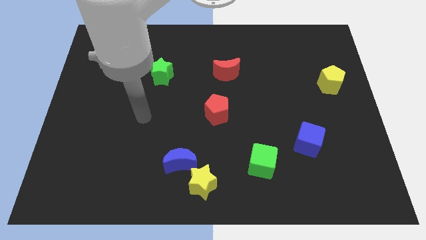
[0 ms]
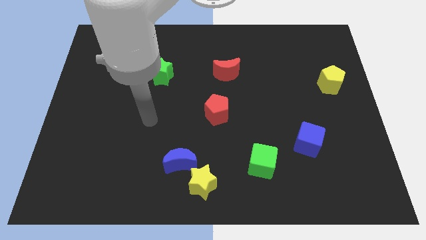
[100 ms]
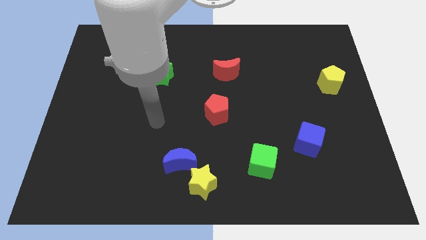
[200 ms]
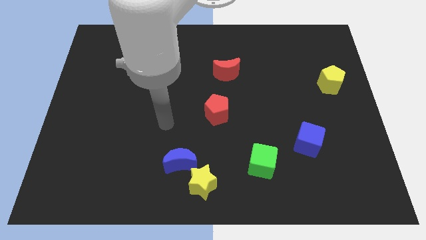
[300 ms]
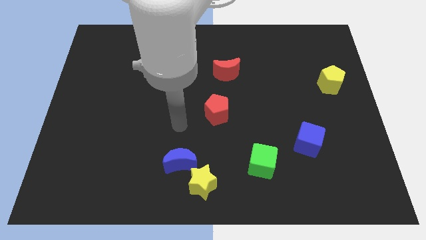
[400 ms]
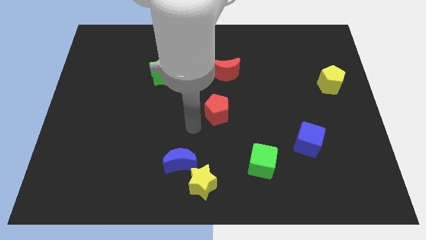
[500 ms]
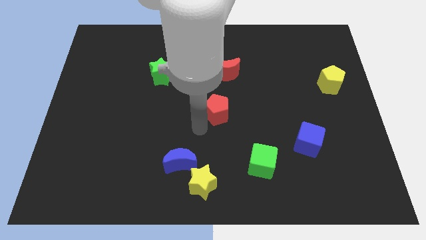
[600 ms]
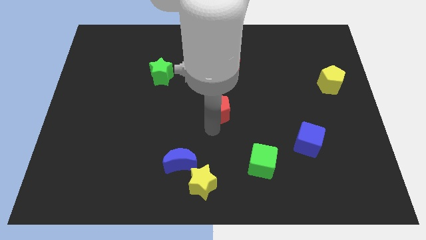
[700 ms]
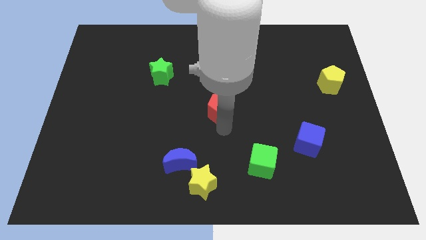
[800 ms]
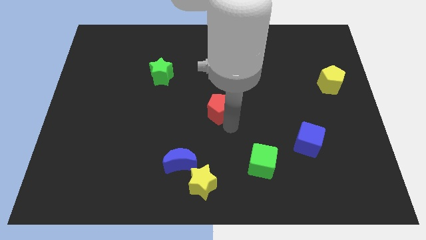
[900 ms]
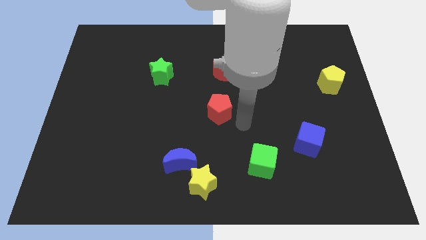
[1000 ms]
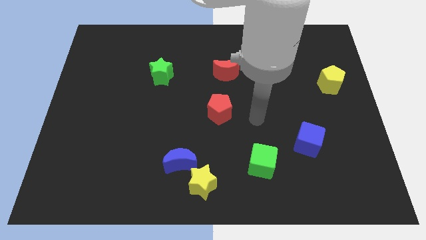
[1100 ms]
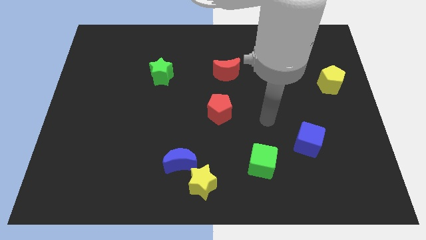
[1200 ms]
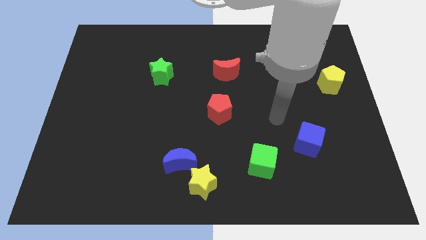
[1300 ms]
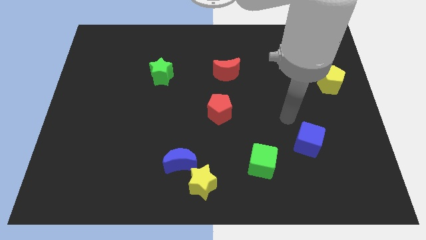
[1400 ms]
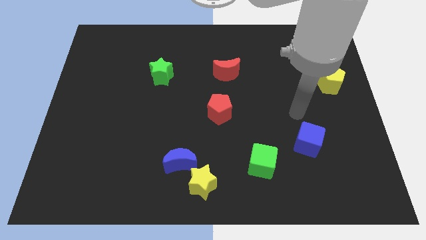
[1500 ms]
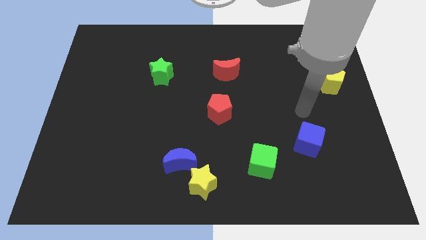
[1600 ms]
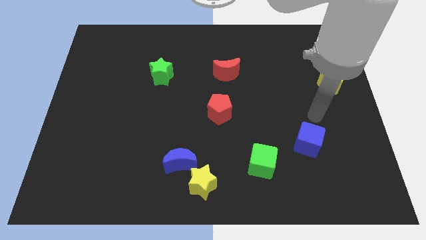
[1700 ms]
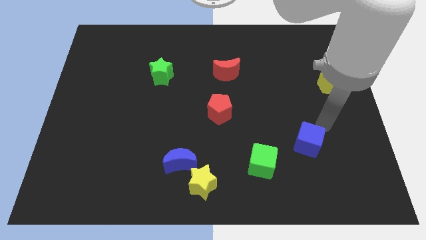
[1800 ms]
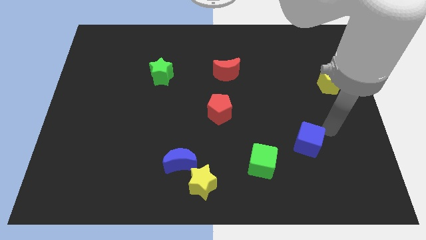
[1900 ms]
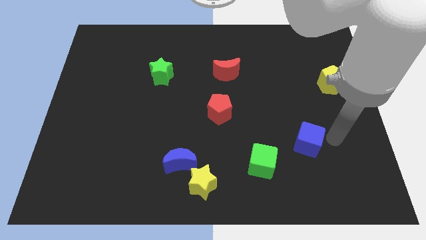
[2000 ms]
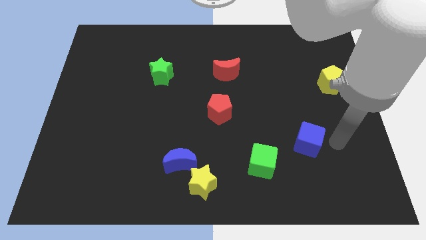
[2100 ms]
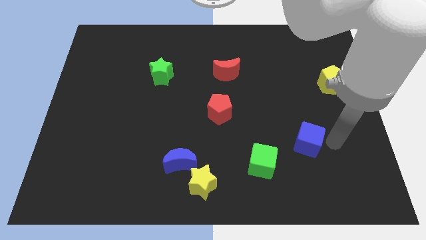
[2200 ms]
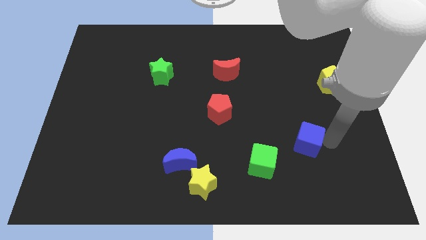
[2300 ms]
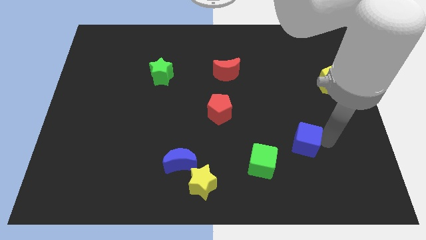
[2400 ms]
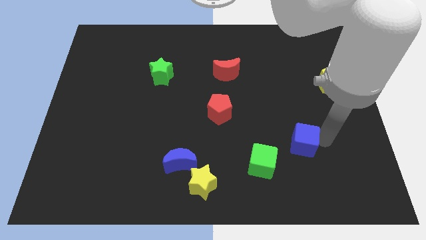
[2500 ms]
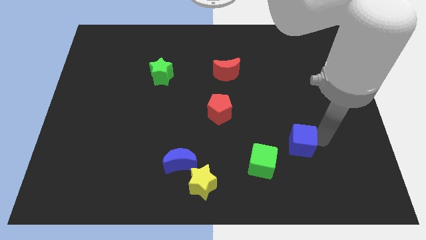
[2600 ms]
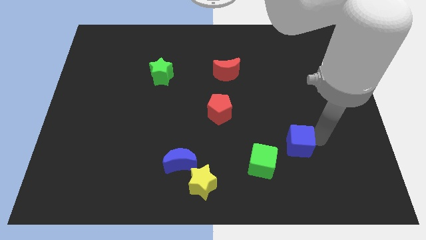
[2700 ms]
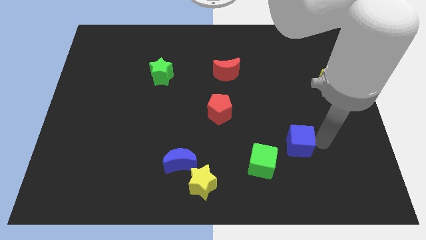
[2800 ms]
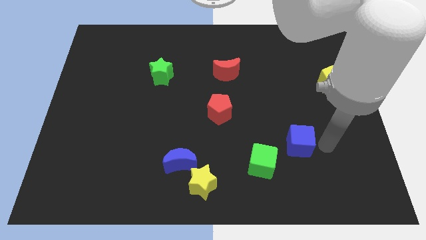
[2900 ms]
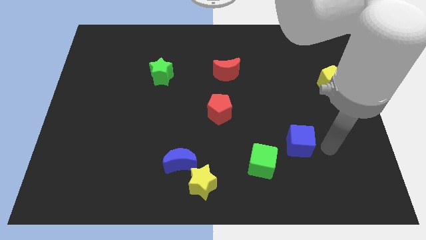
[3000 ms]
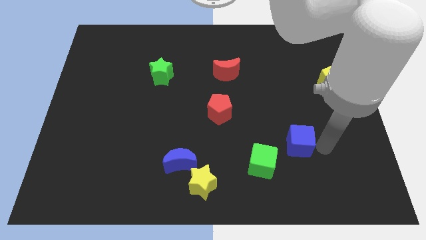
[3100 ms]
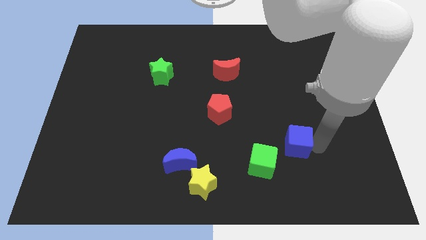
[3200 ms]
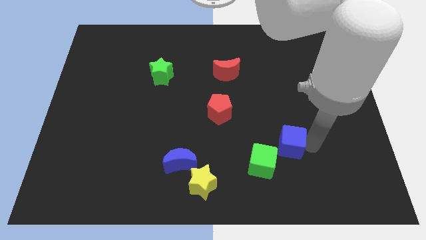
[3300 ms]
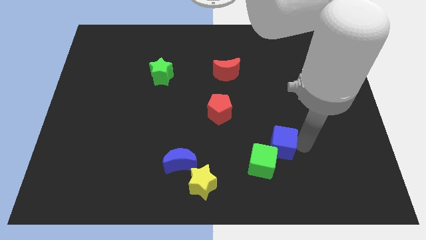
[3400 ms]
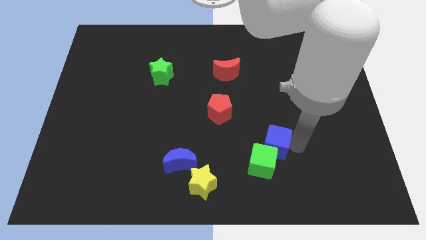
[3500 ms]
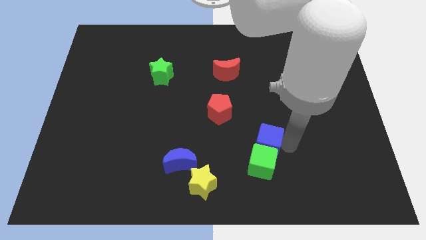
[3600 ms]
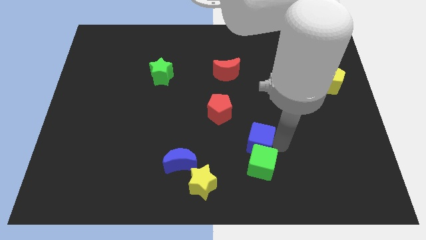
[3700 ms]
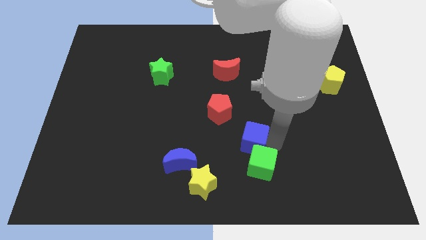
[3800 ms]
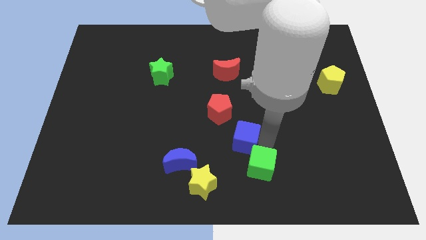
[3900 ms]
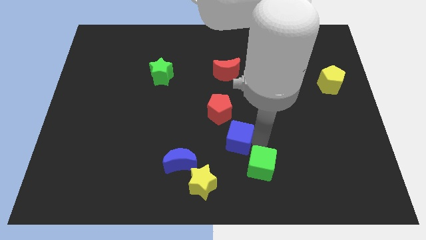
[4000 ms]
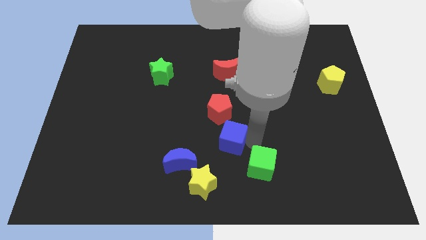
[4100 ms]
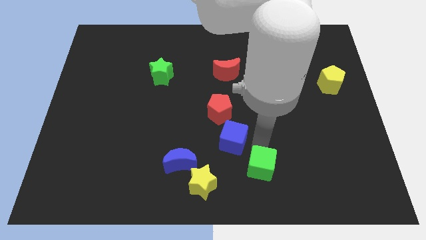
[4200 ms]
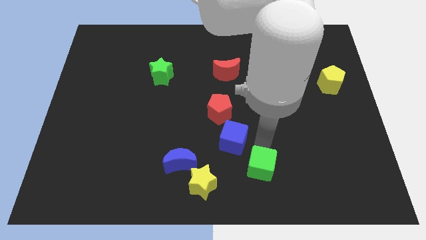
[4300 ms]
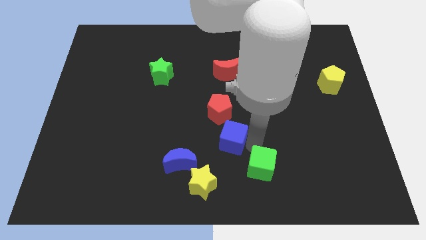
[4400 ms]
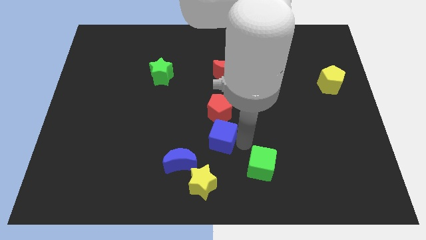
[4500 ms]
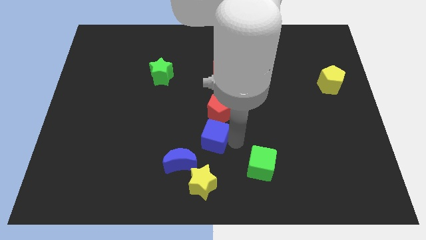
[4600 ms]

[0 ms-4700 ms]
slide the blue cube to the bottom left side of the red pentagon

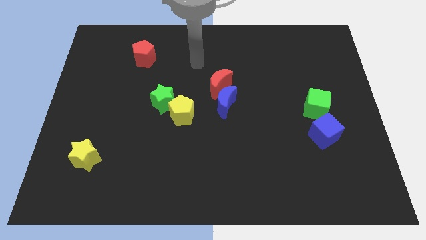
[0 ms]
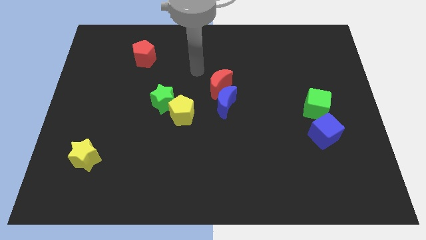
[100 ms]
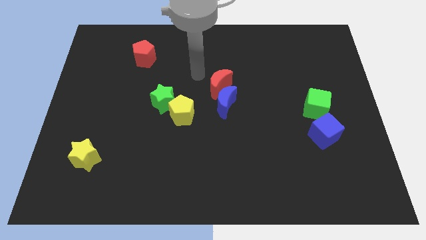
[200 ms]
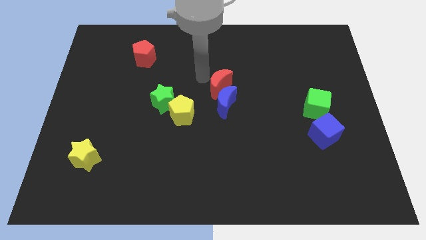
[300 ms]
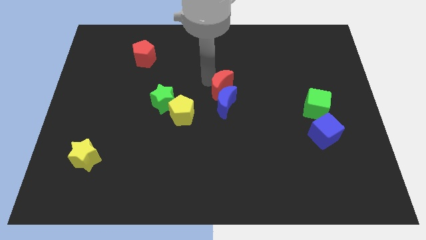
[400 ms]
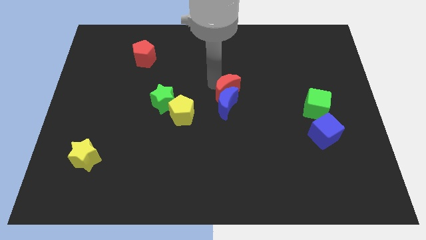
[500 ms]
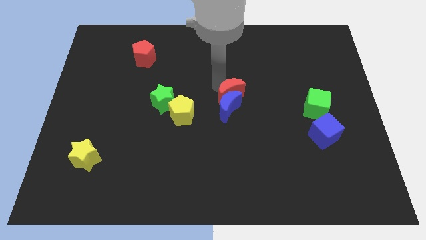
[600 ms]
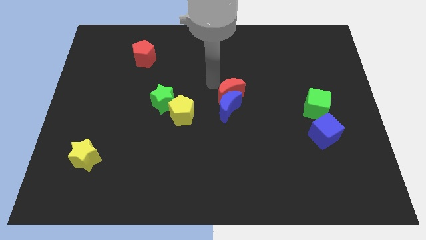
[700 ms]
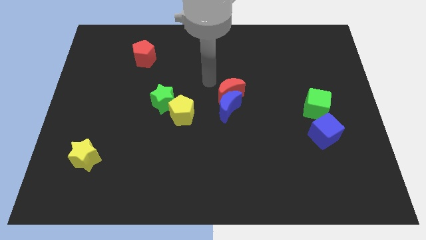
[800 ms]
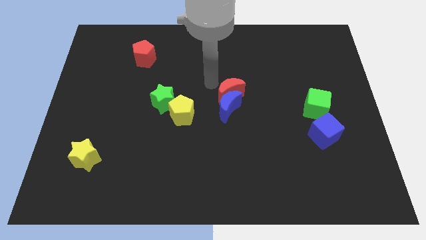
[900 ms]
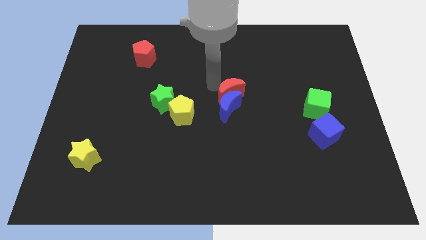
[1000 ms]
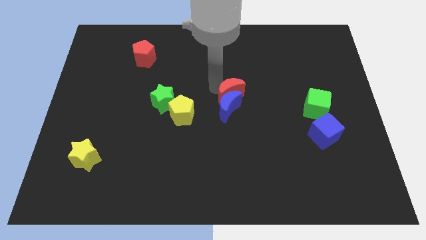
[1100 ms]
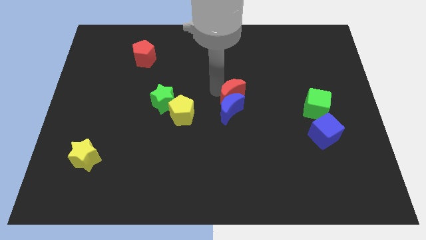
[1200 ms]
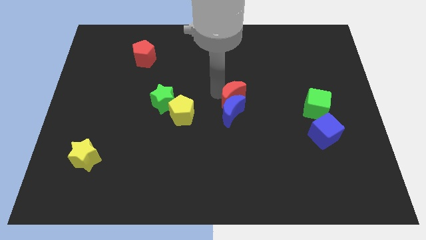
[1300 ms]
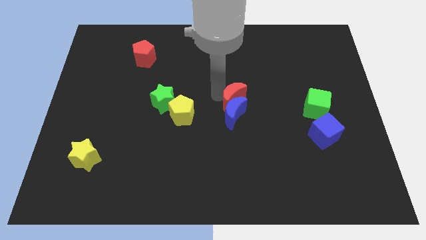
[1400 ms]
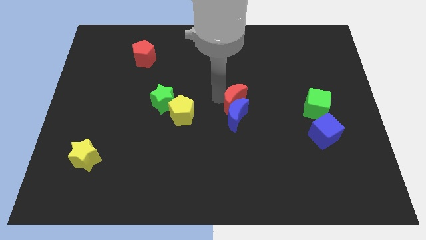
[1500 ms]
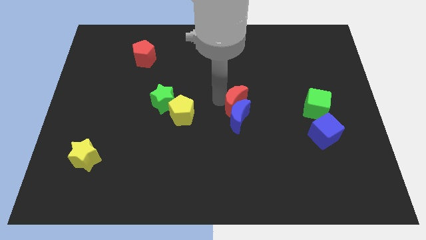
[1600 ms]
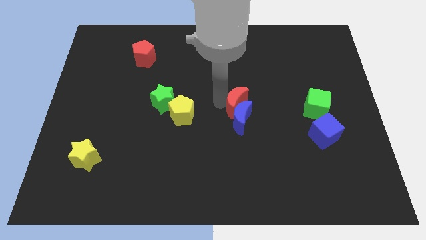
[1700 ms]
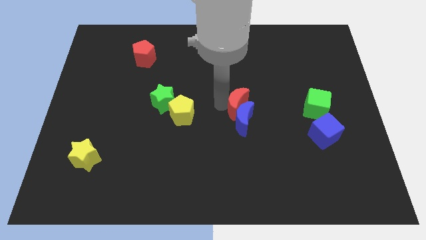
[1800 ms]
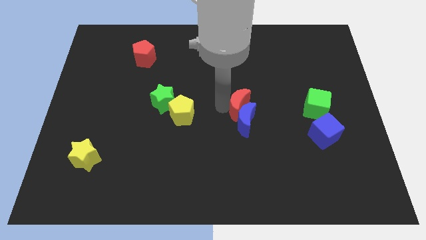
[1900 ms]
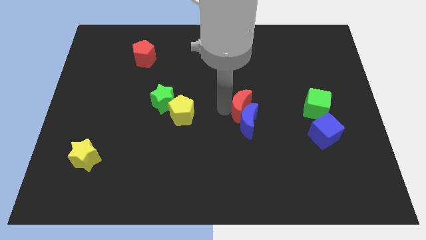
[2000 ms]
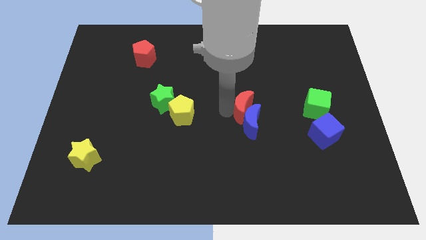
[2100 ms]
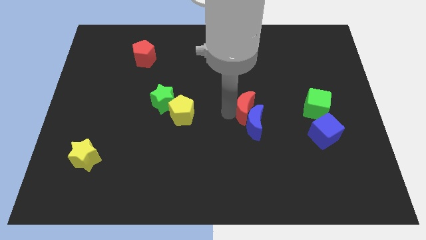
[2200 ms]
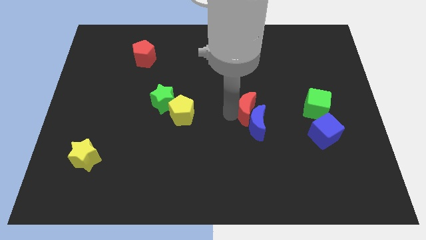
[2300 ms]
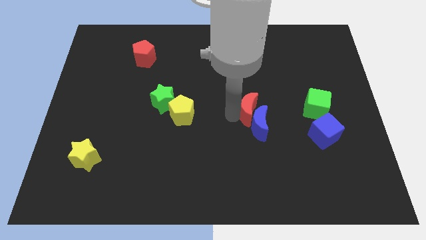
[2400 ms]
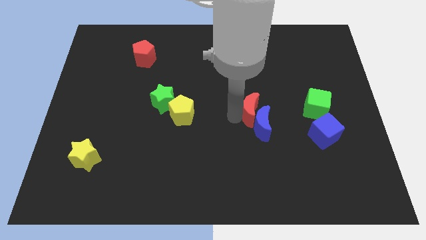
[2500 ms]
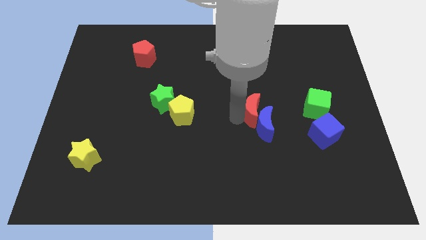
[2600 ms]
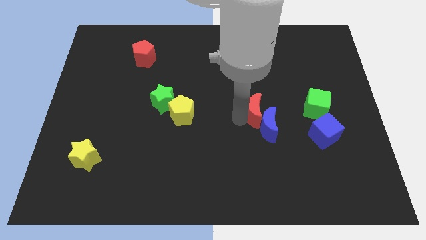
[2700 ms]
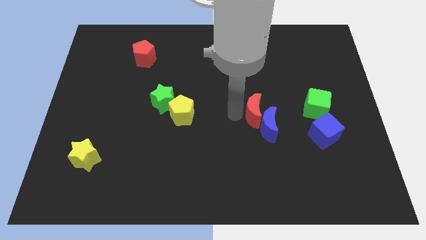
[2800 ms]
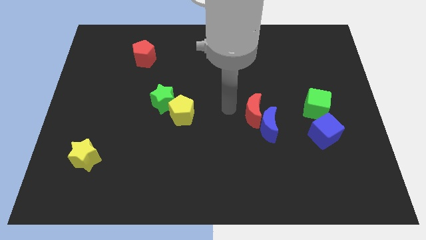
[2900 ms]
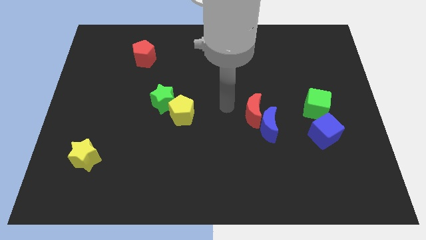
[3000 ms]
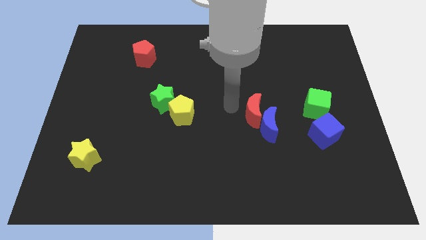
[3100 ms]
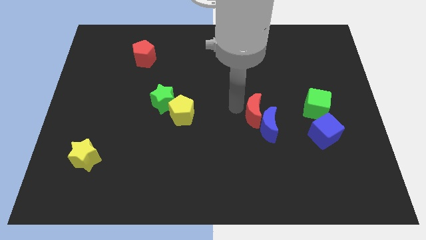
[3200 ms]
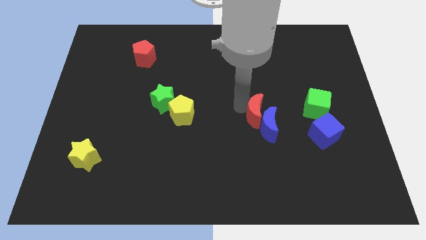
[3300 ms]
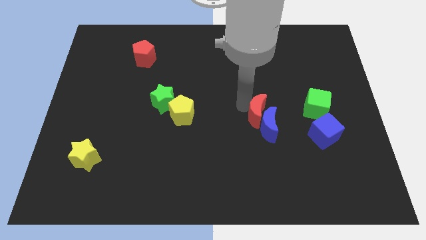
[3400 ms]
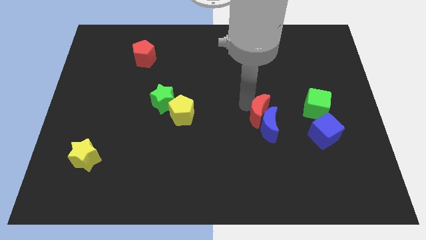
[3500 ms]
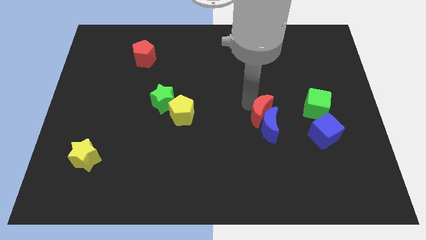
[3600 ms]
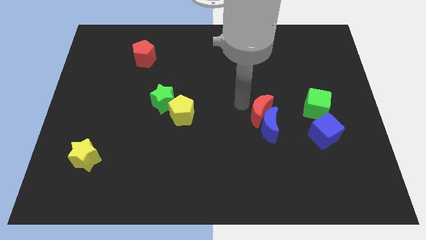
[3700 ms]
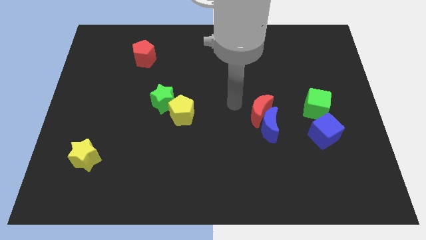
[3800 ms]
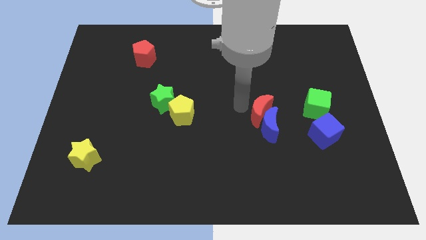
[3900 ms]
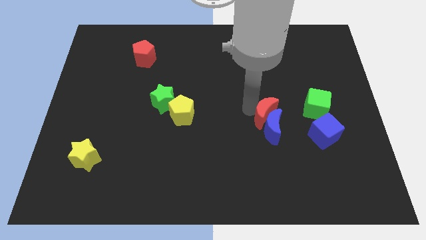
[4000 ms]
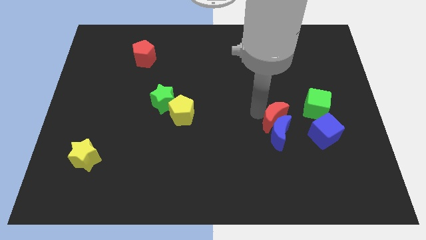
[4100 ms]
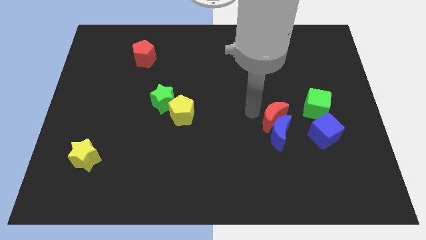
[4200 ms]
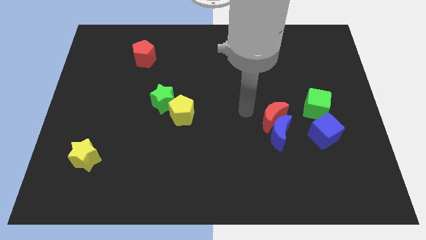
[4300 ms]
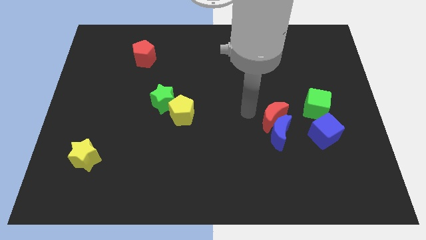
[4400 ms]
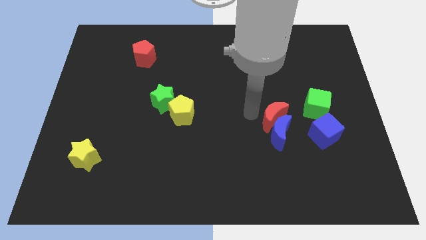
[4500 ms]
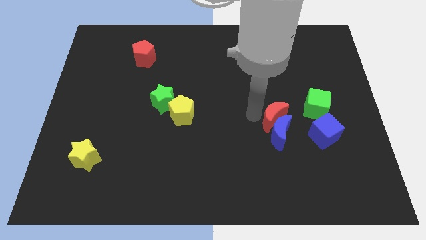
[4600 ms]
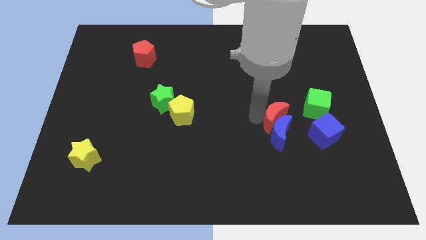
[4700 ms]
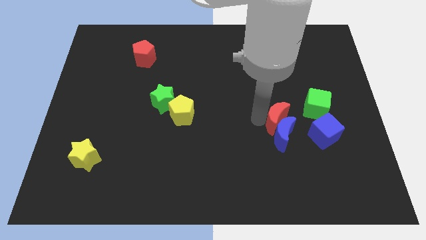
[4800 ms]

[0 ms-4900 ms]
push the red moon to the bottom left side of the green cube
